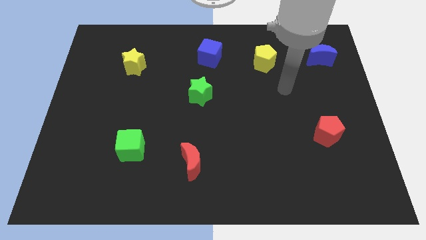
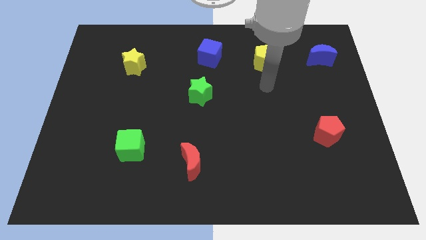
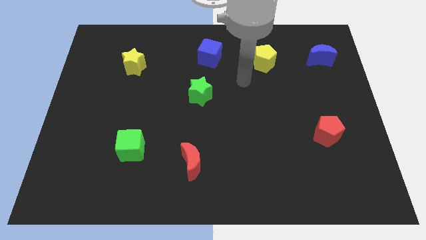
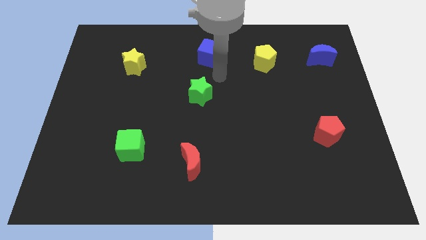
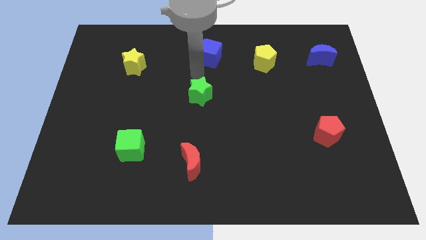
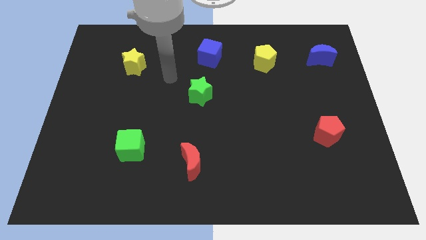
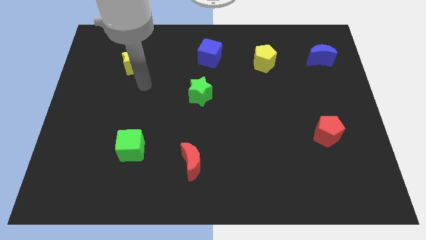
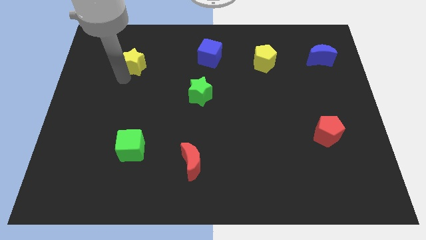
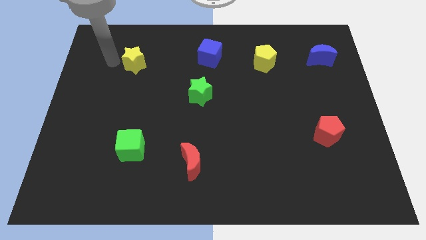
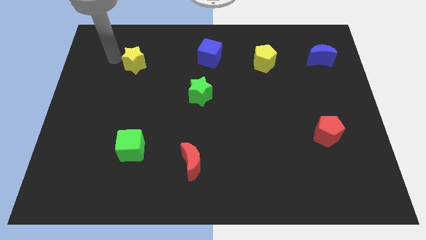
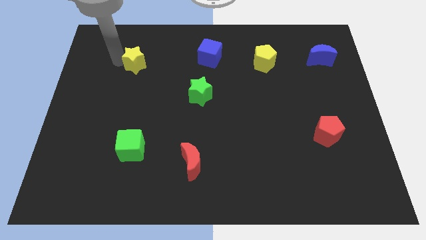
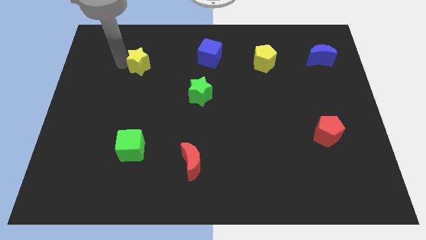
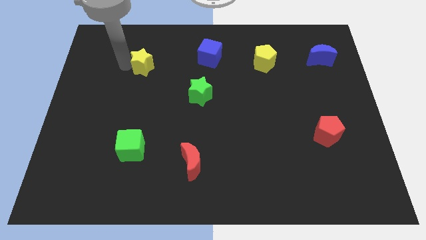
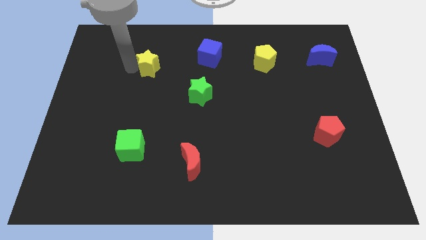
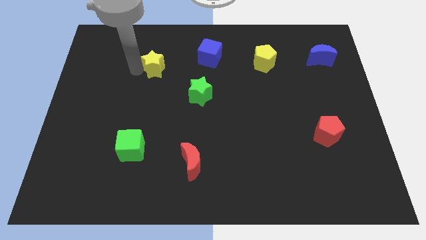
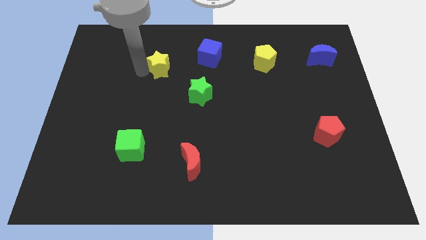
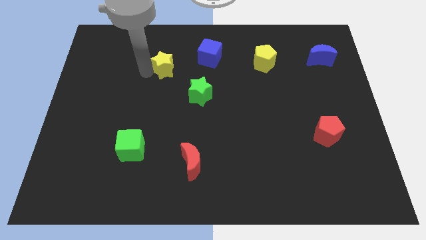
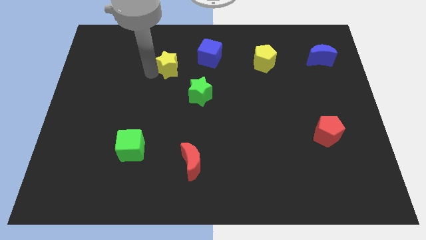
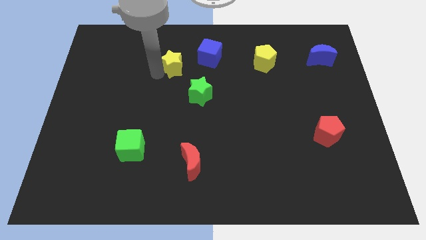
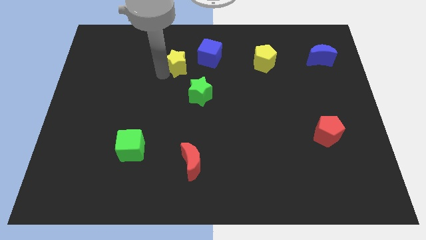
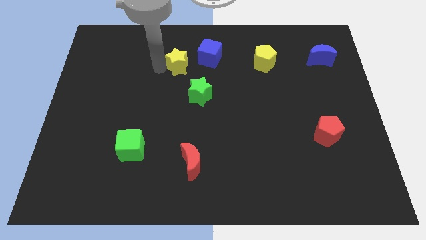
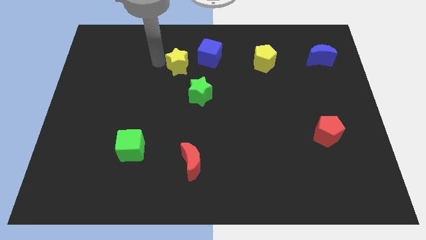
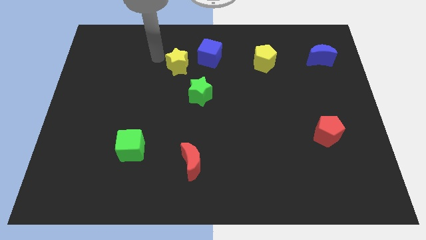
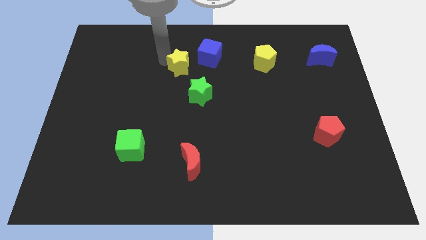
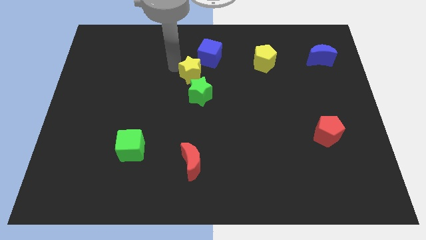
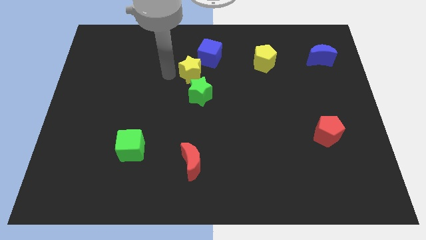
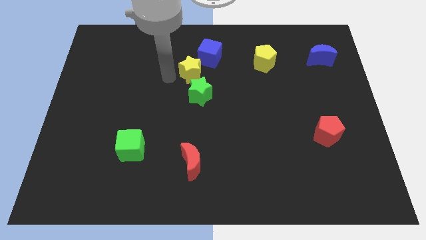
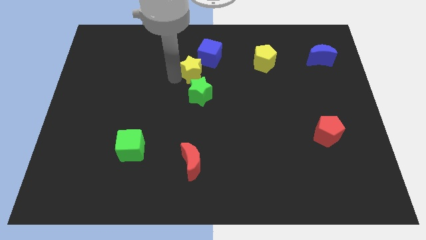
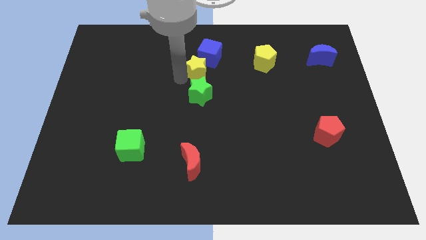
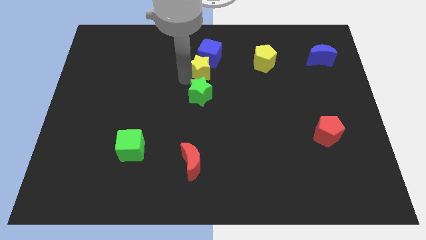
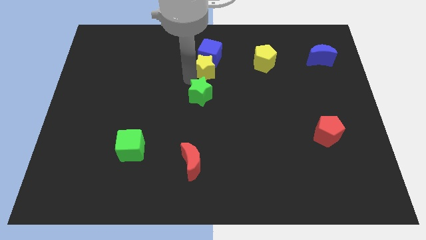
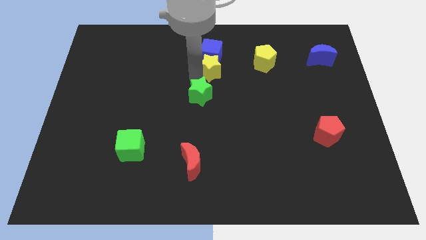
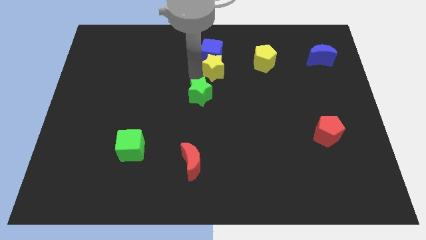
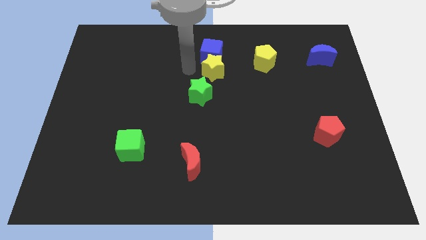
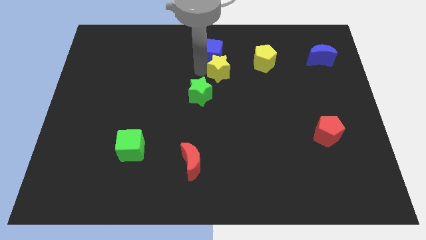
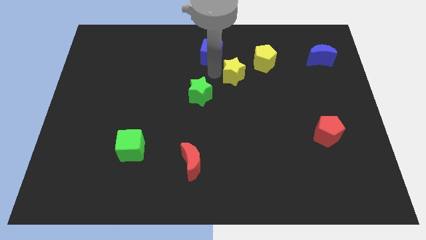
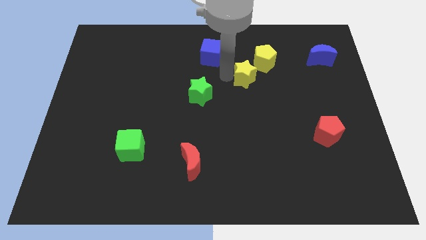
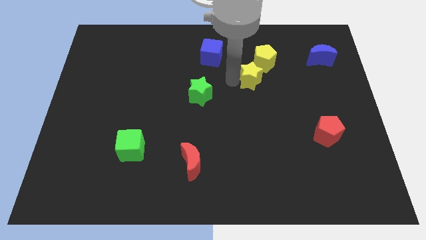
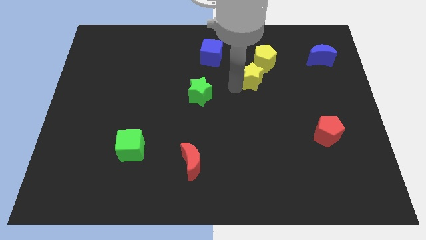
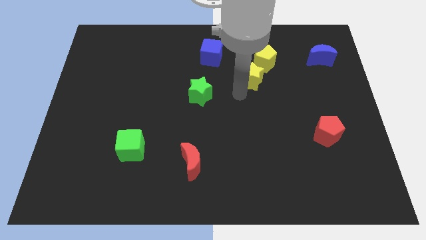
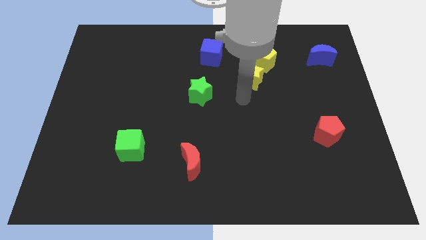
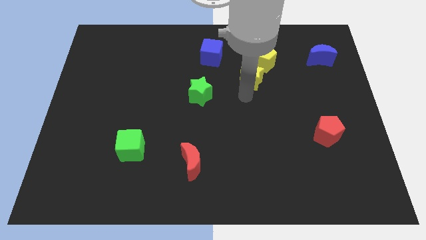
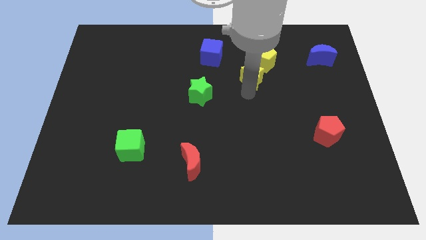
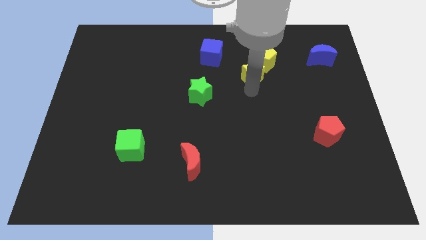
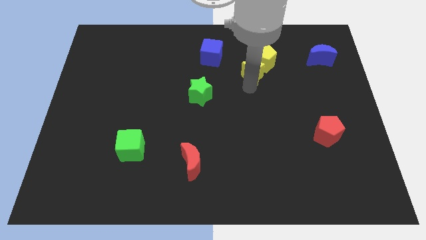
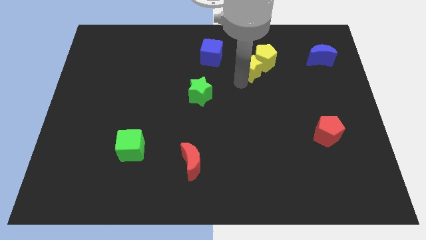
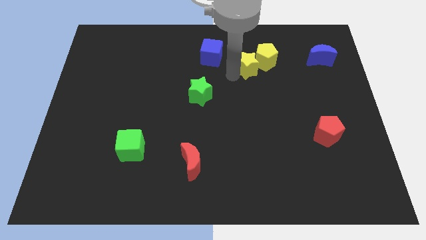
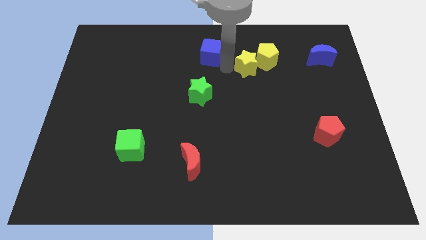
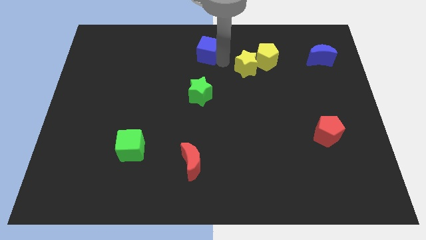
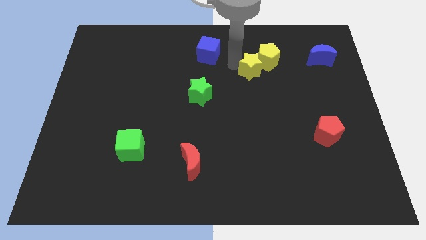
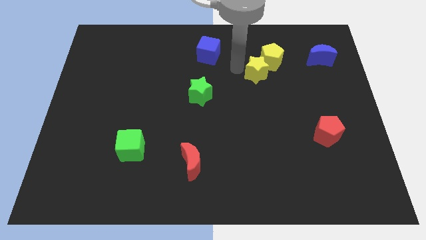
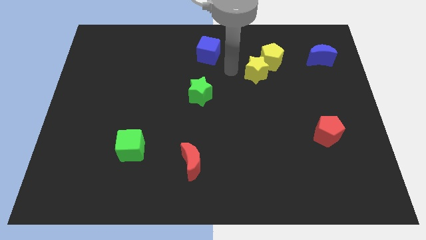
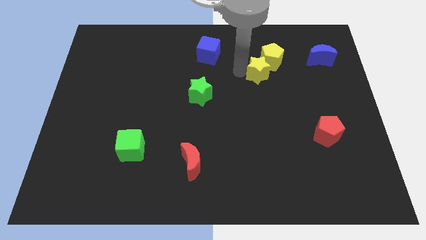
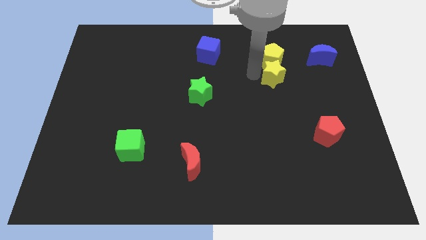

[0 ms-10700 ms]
push the yellow star to the bottom right of the yellow pentagon
